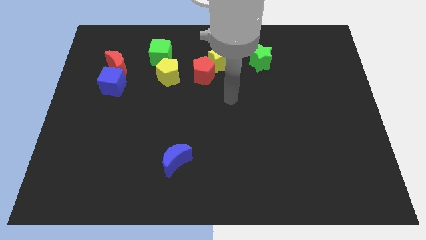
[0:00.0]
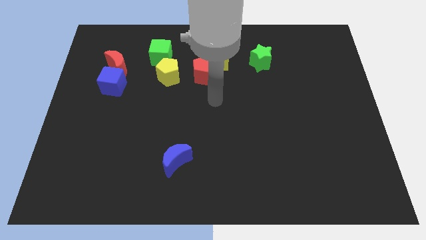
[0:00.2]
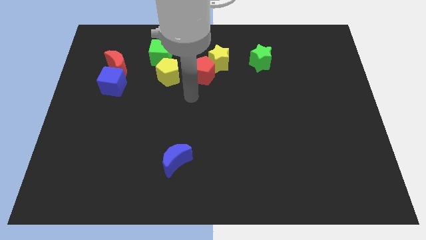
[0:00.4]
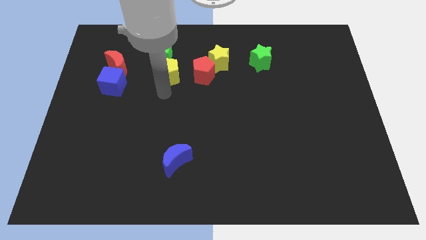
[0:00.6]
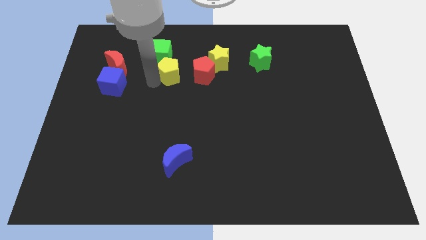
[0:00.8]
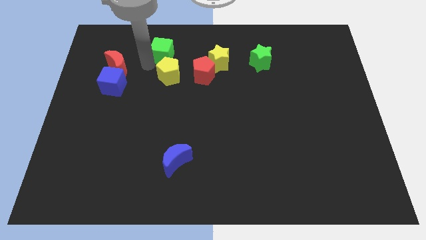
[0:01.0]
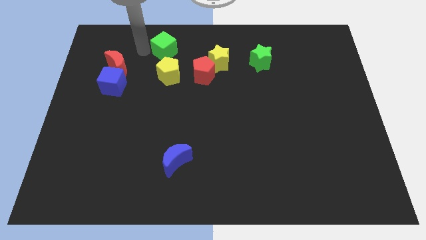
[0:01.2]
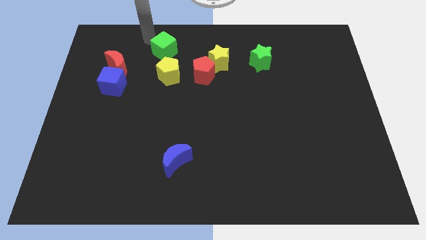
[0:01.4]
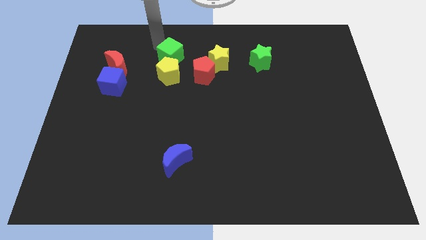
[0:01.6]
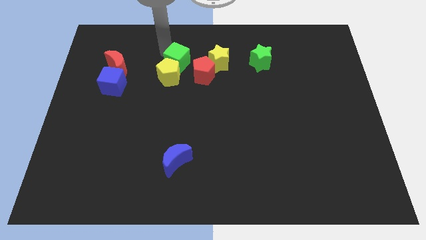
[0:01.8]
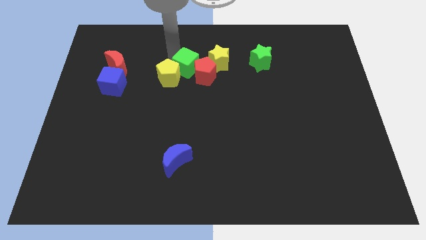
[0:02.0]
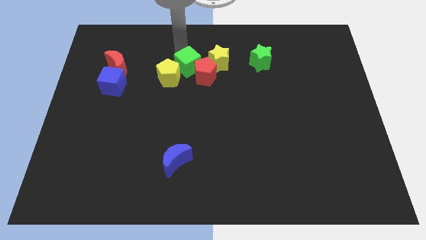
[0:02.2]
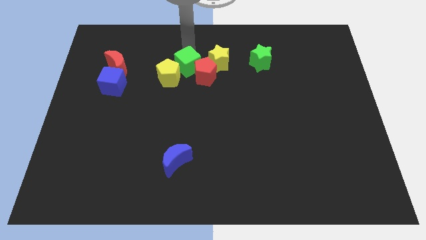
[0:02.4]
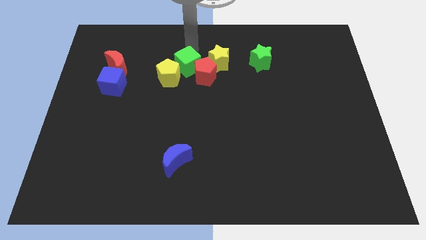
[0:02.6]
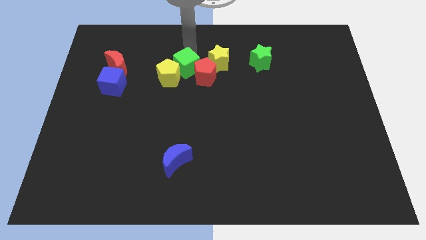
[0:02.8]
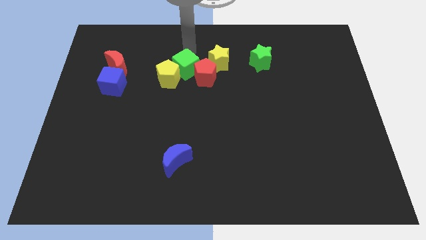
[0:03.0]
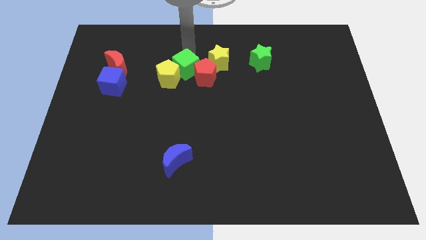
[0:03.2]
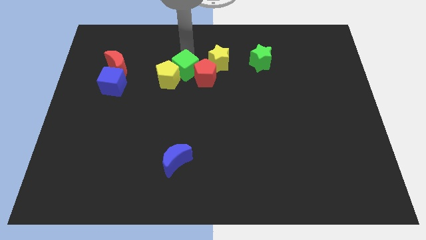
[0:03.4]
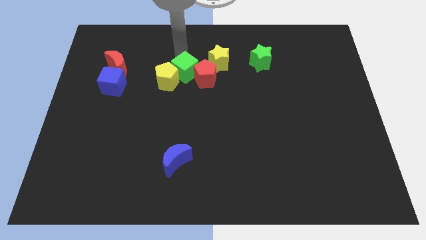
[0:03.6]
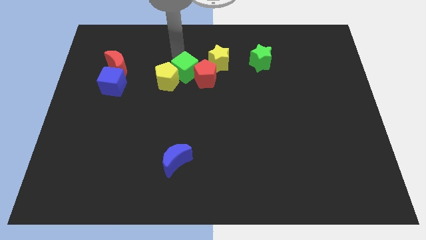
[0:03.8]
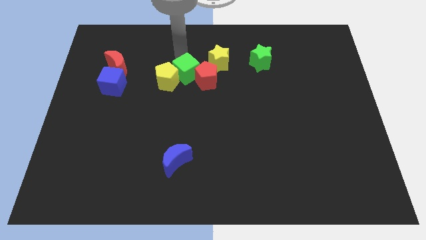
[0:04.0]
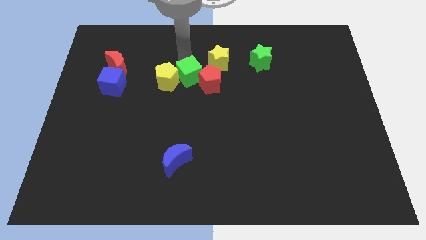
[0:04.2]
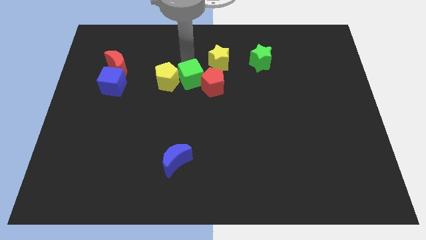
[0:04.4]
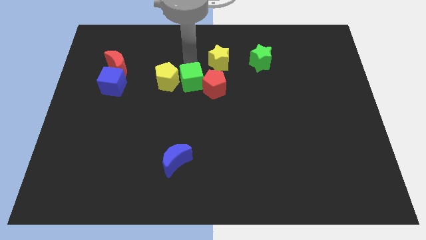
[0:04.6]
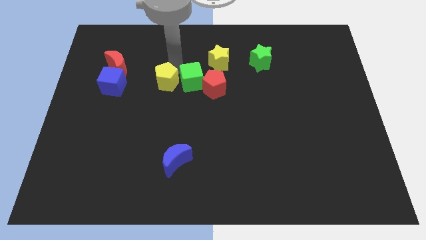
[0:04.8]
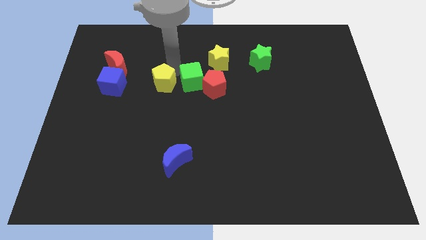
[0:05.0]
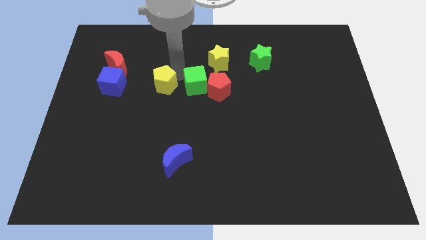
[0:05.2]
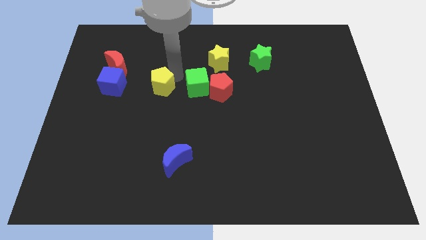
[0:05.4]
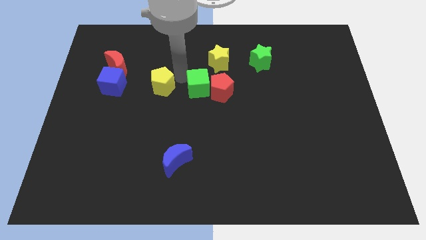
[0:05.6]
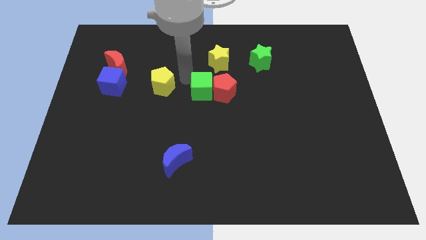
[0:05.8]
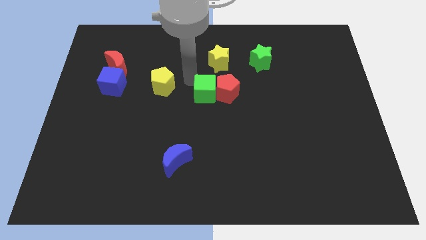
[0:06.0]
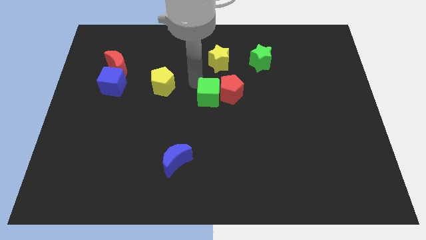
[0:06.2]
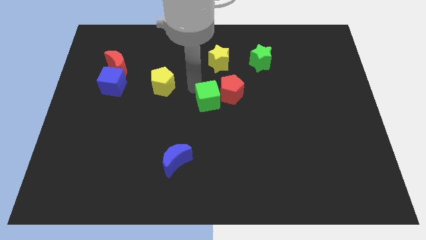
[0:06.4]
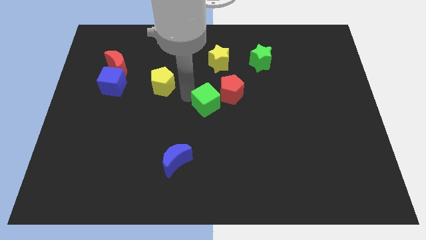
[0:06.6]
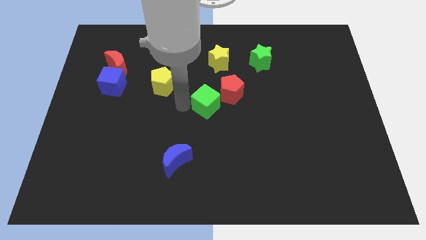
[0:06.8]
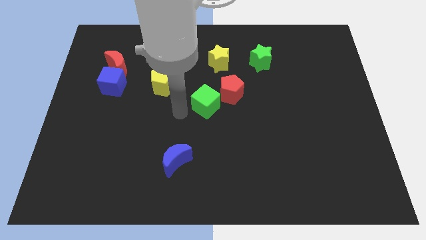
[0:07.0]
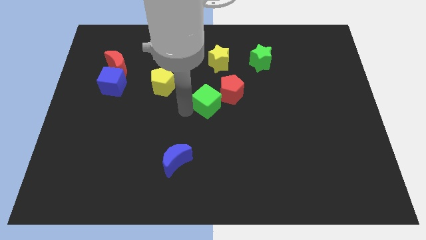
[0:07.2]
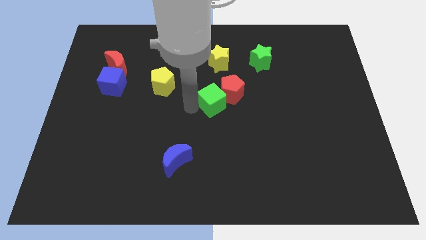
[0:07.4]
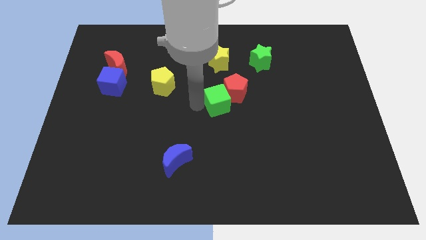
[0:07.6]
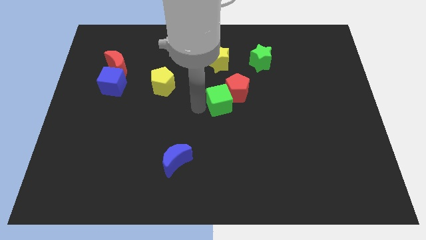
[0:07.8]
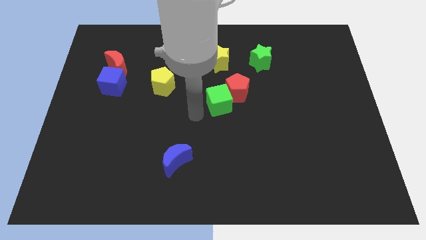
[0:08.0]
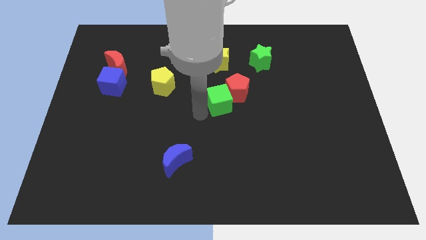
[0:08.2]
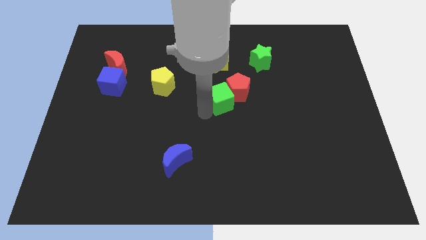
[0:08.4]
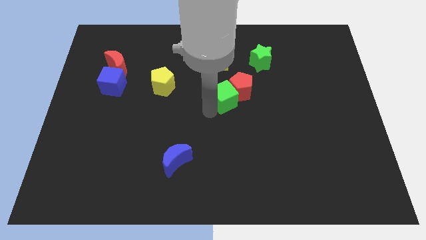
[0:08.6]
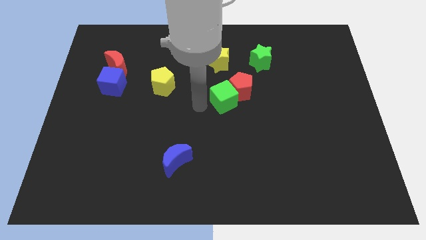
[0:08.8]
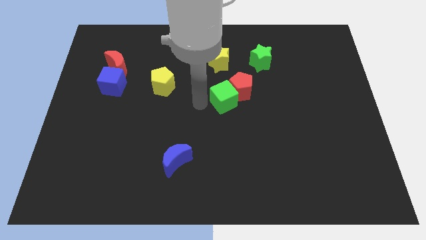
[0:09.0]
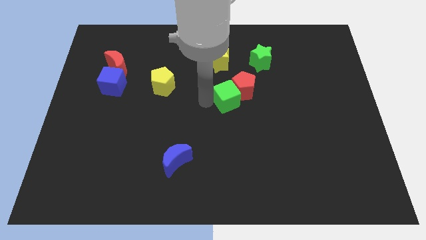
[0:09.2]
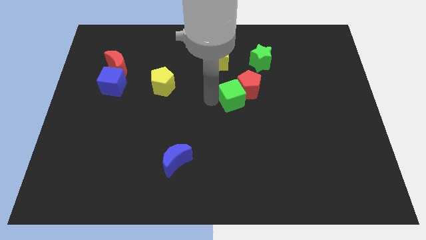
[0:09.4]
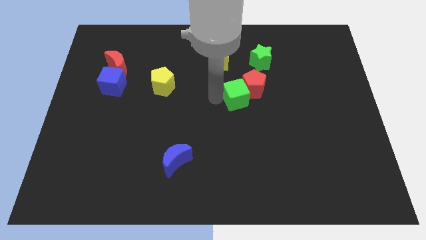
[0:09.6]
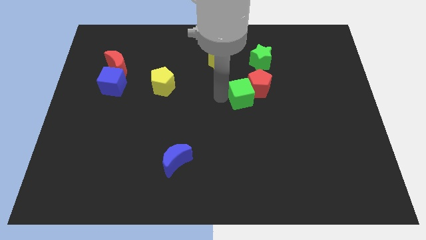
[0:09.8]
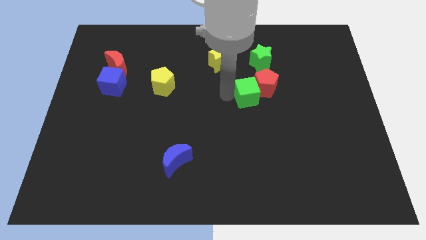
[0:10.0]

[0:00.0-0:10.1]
put the green cube to the bottom side of the green star

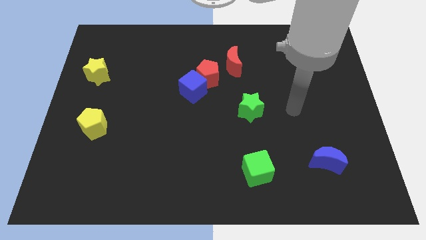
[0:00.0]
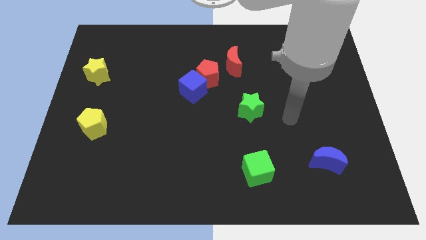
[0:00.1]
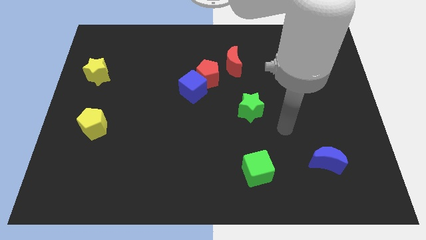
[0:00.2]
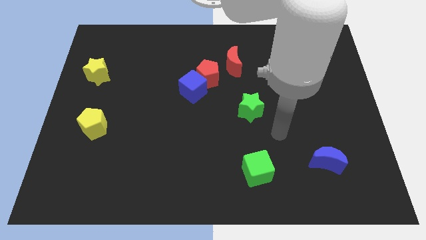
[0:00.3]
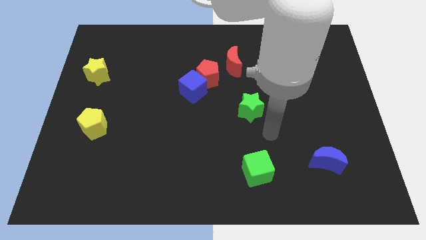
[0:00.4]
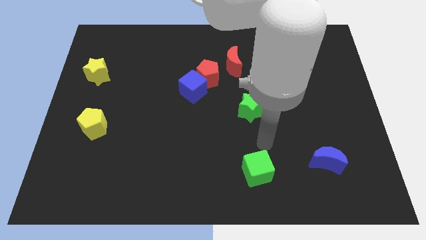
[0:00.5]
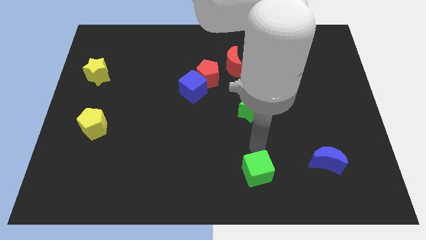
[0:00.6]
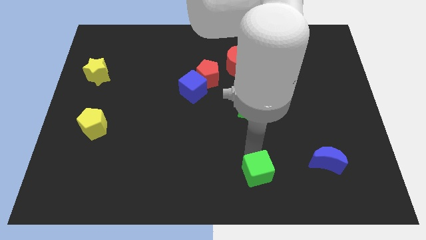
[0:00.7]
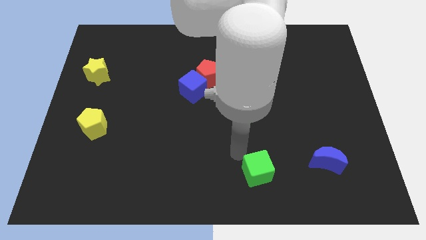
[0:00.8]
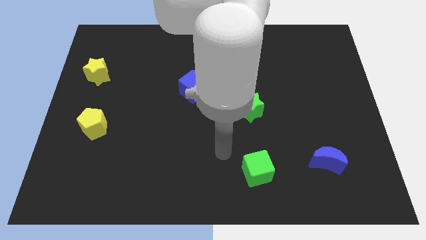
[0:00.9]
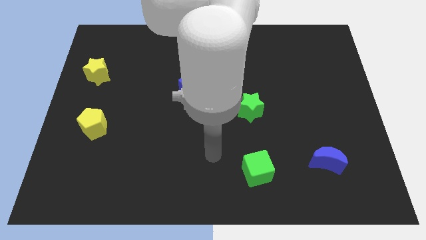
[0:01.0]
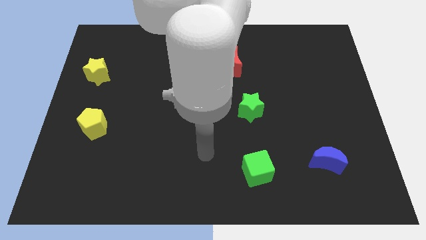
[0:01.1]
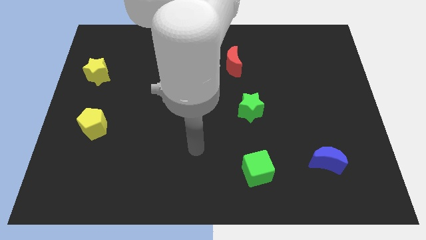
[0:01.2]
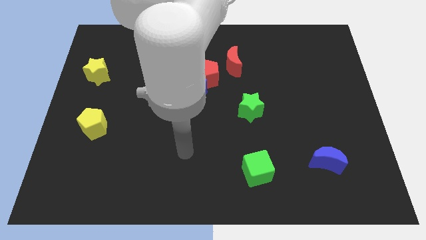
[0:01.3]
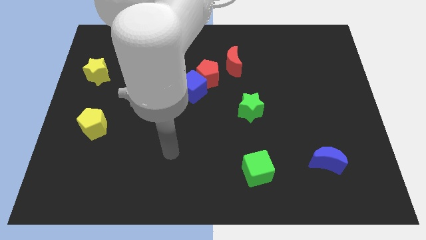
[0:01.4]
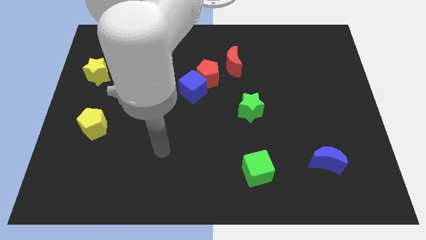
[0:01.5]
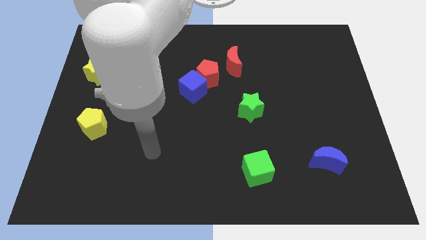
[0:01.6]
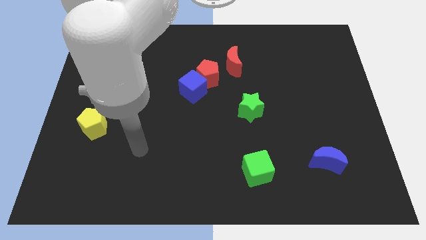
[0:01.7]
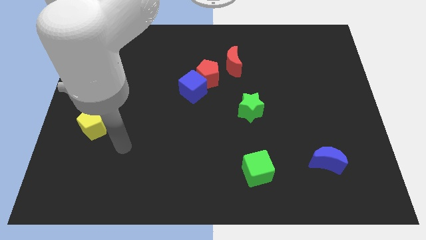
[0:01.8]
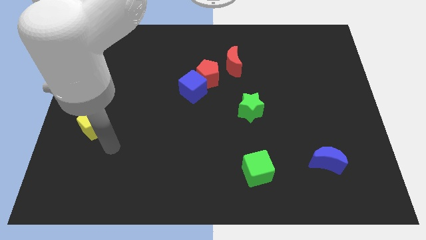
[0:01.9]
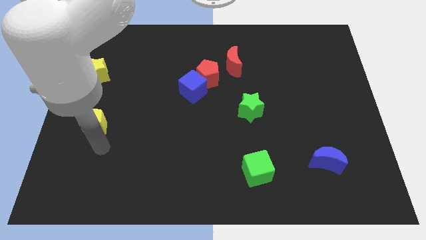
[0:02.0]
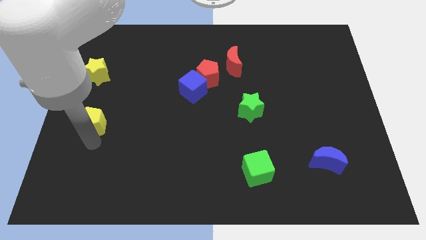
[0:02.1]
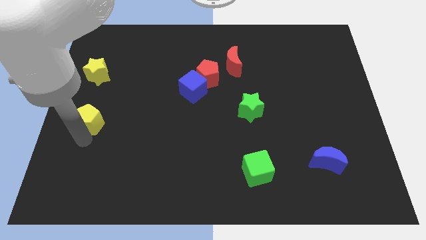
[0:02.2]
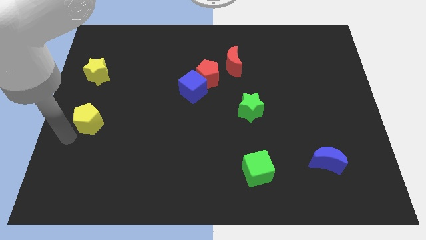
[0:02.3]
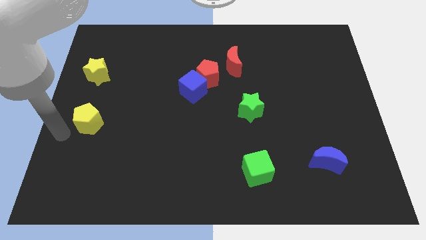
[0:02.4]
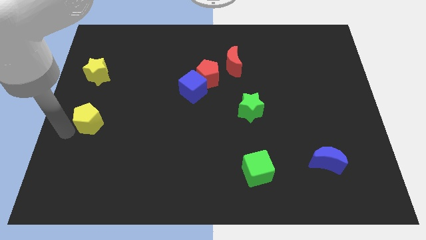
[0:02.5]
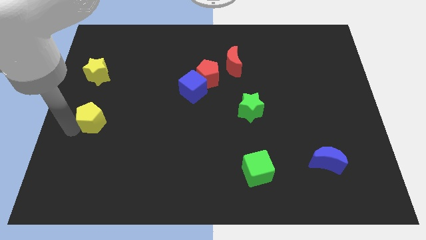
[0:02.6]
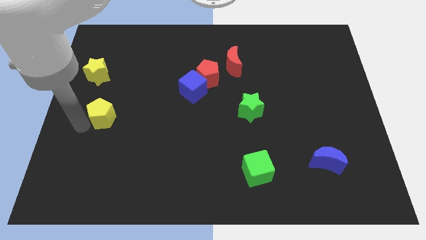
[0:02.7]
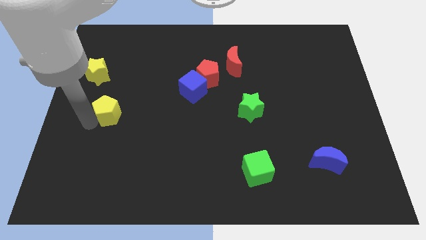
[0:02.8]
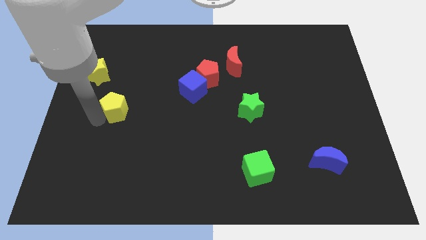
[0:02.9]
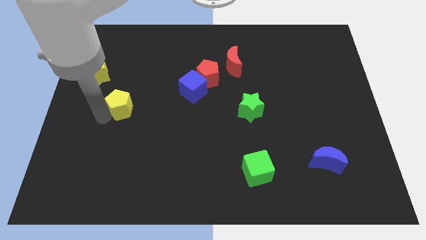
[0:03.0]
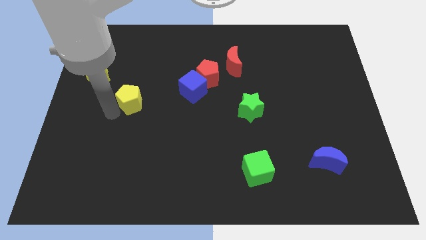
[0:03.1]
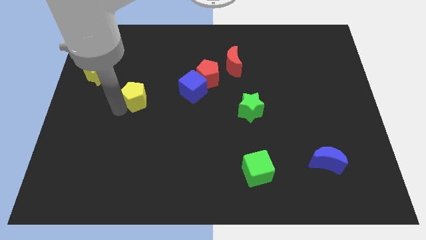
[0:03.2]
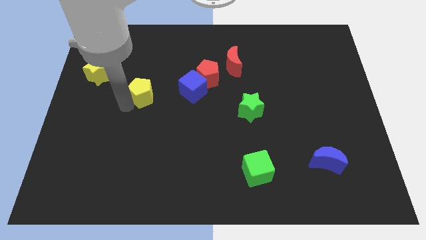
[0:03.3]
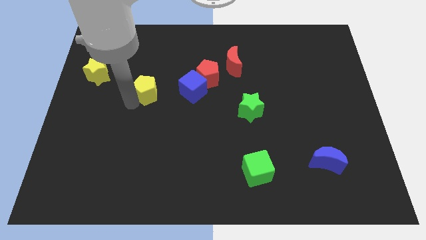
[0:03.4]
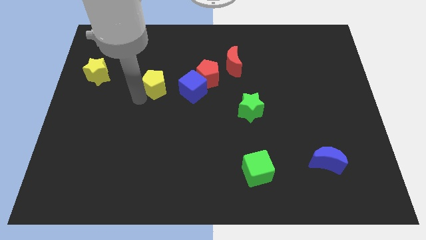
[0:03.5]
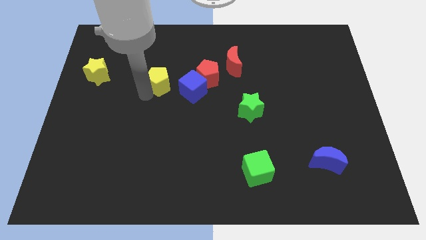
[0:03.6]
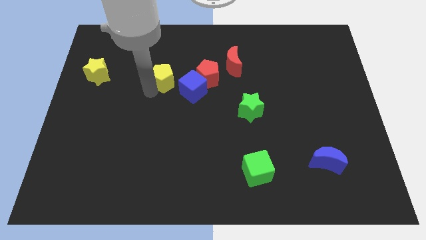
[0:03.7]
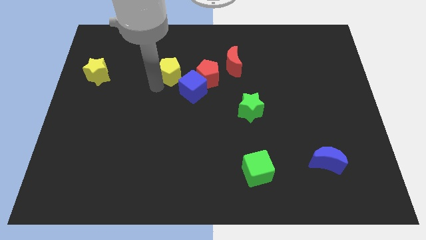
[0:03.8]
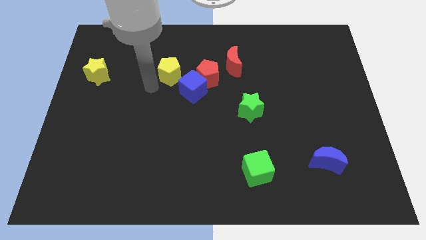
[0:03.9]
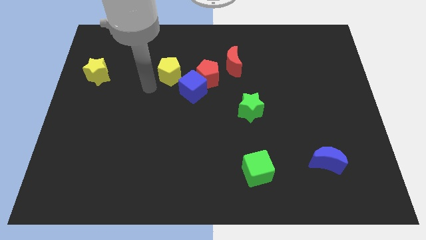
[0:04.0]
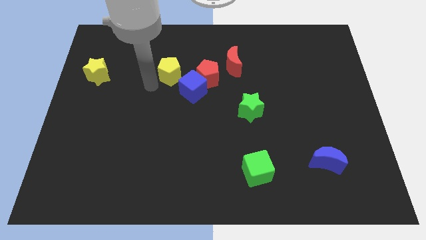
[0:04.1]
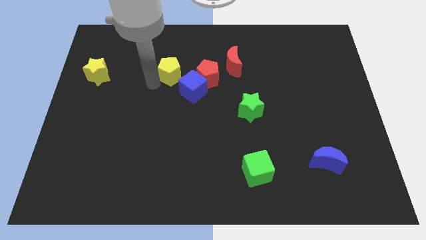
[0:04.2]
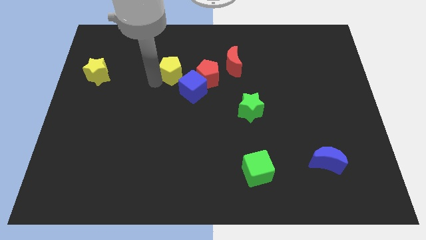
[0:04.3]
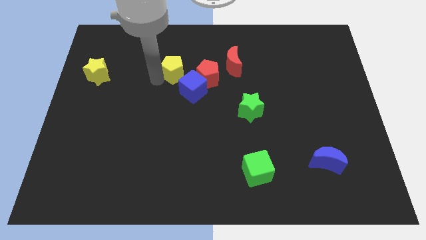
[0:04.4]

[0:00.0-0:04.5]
move the yellow pentagon diagonally up and to the left of the red pentagon
